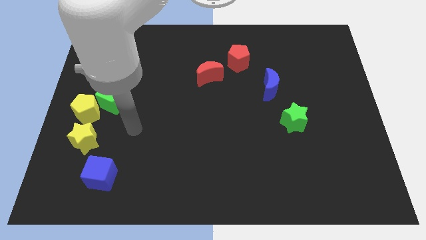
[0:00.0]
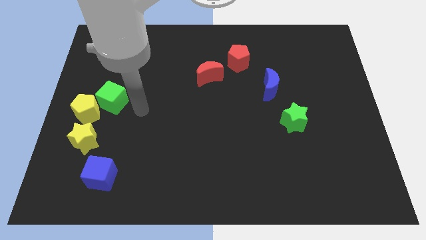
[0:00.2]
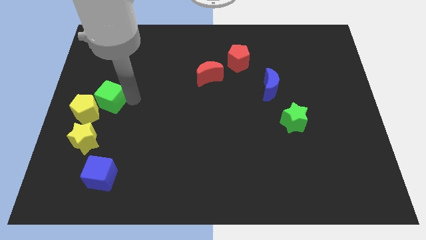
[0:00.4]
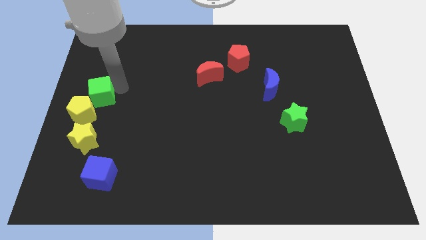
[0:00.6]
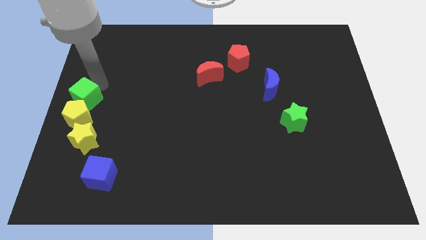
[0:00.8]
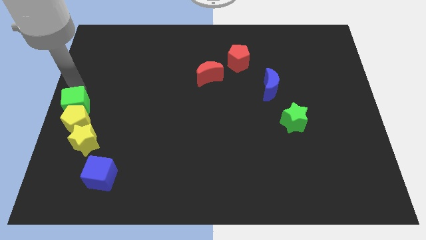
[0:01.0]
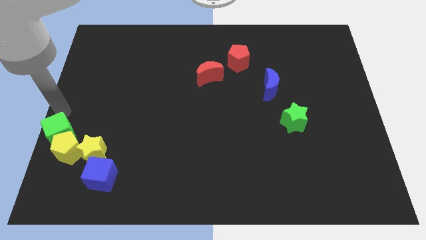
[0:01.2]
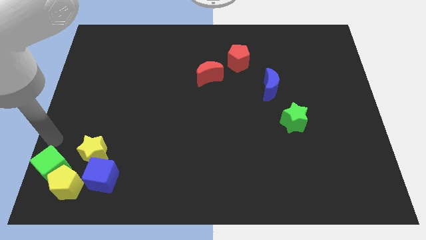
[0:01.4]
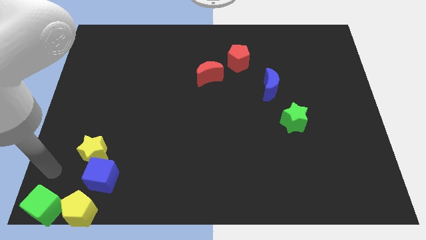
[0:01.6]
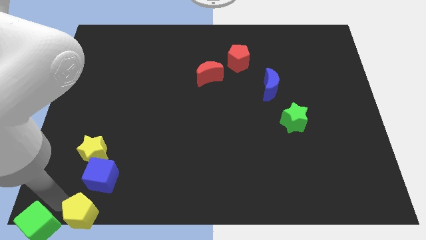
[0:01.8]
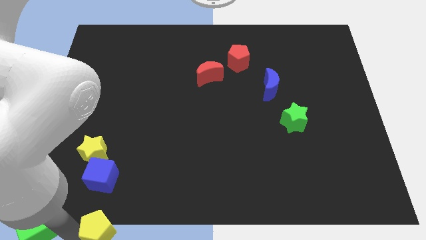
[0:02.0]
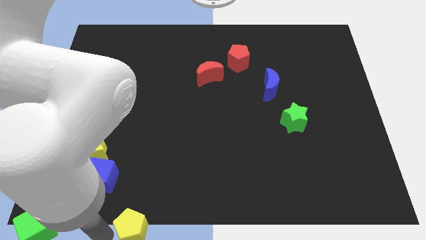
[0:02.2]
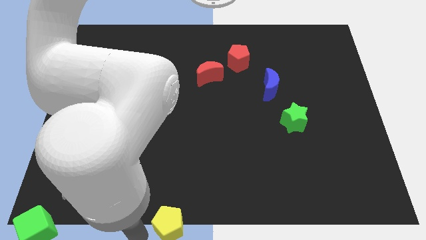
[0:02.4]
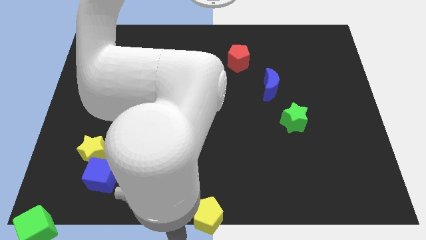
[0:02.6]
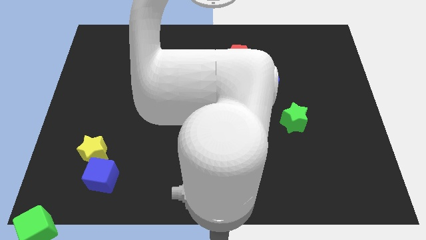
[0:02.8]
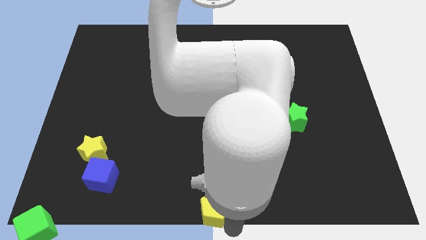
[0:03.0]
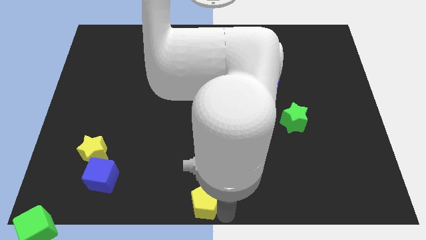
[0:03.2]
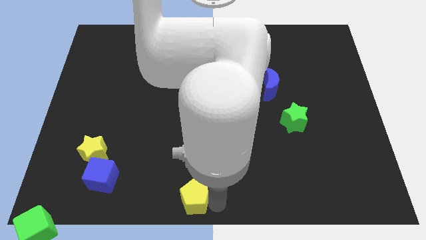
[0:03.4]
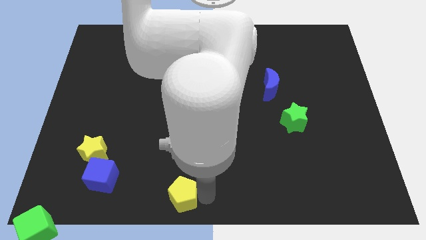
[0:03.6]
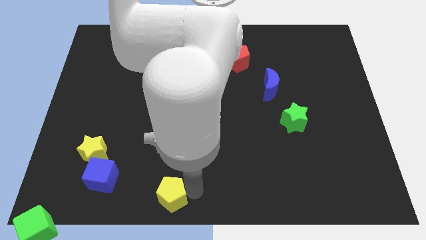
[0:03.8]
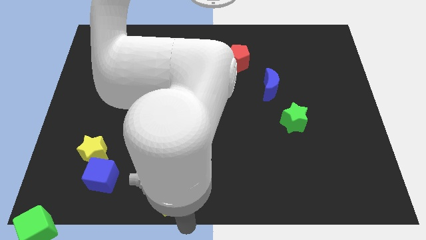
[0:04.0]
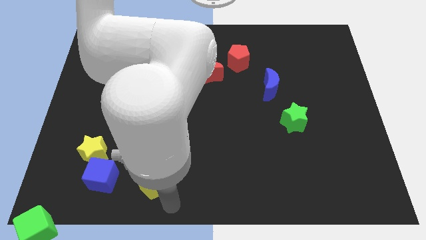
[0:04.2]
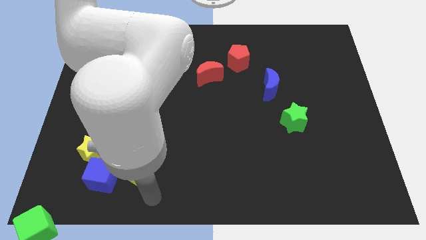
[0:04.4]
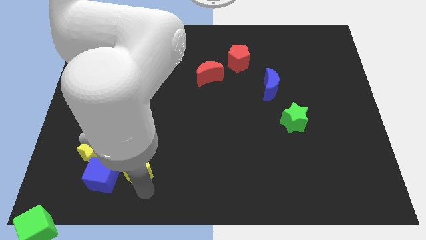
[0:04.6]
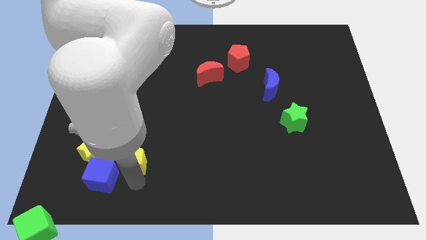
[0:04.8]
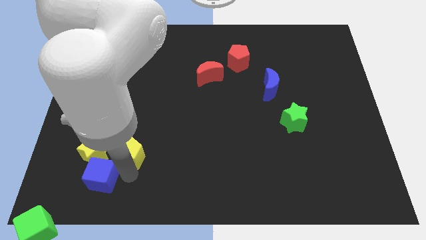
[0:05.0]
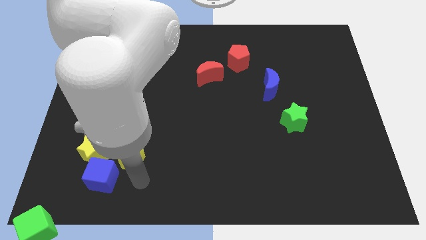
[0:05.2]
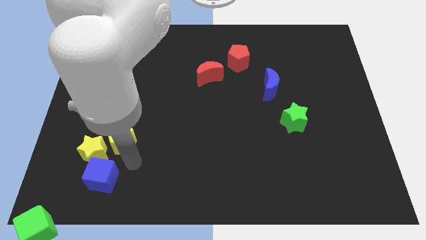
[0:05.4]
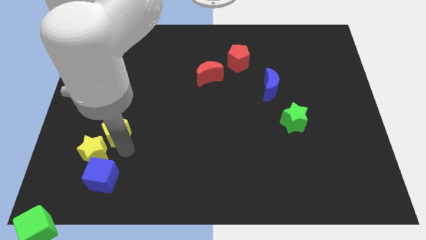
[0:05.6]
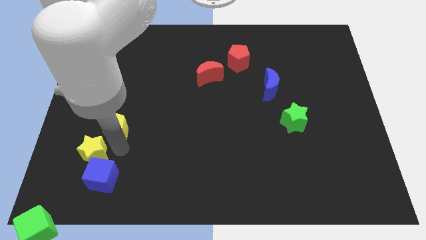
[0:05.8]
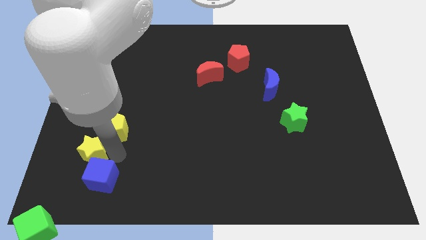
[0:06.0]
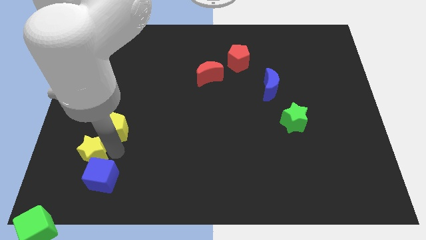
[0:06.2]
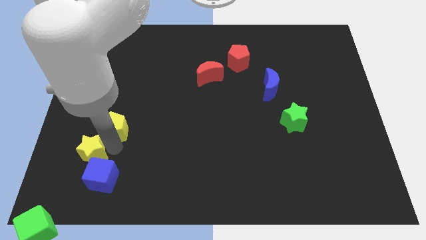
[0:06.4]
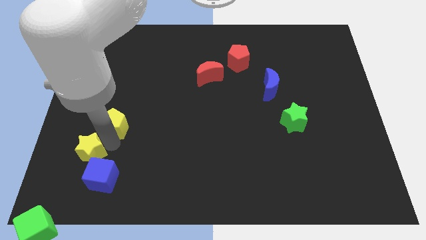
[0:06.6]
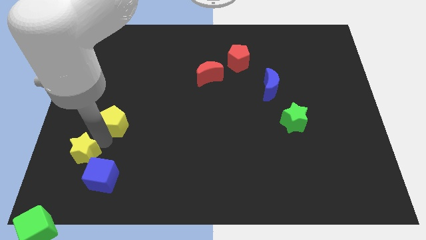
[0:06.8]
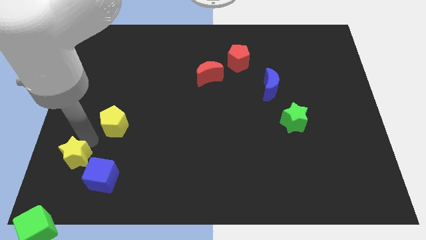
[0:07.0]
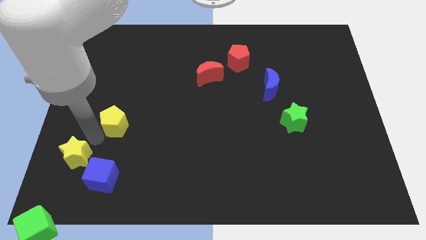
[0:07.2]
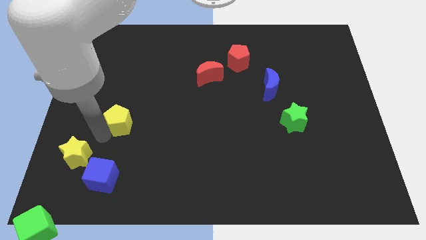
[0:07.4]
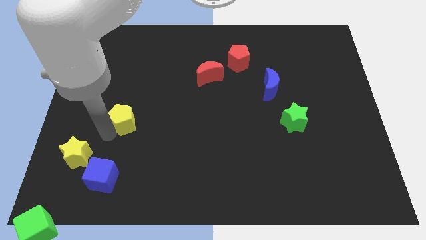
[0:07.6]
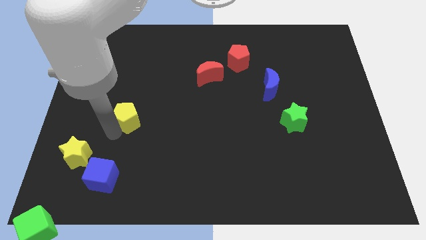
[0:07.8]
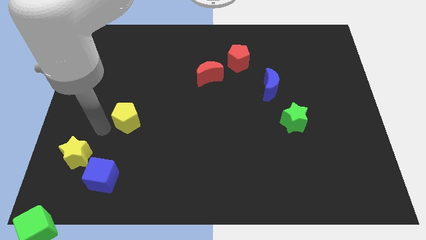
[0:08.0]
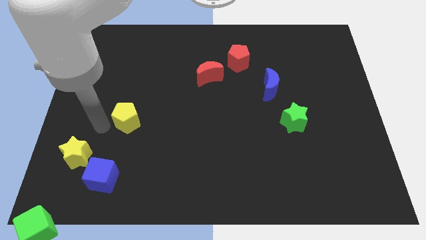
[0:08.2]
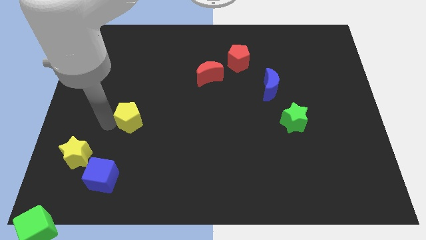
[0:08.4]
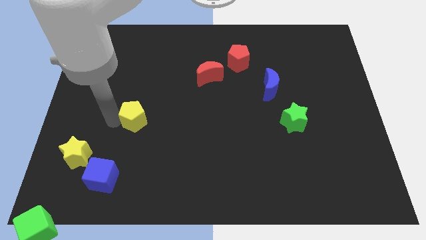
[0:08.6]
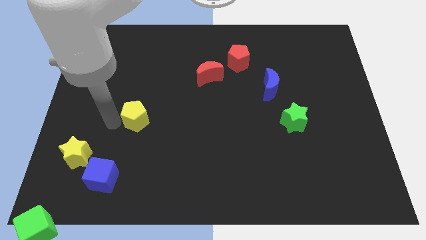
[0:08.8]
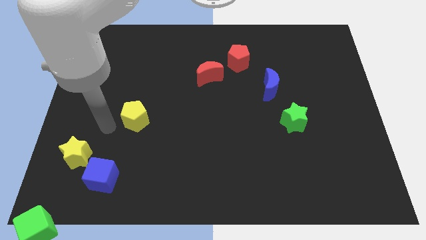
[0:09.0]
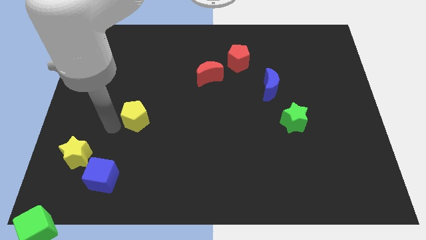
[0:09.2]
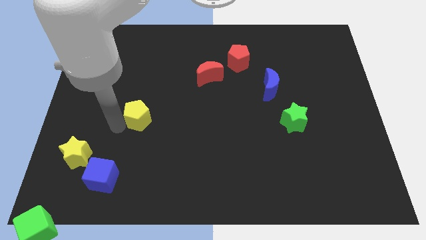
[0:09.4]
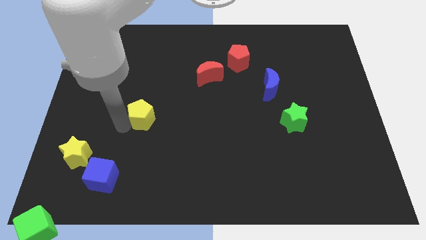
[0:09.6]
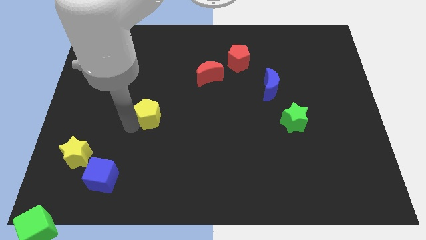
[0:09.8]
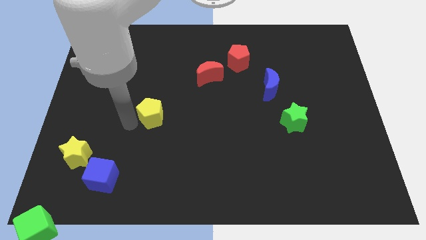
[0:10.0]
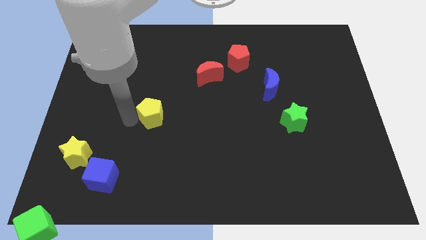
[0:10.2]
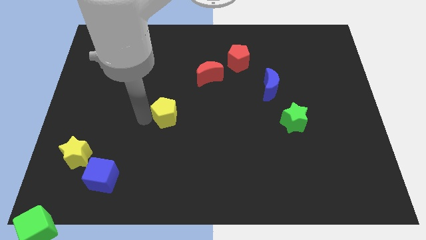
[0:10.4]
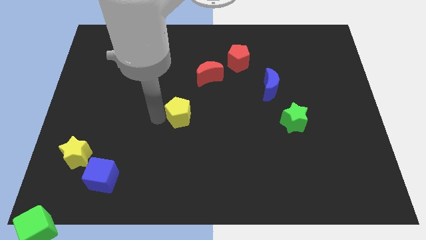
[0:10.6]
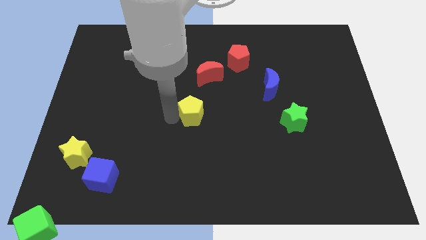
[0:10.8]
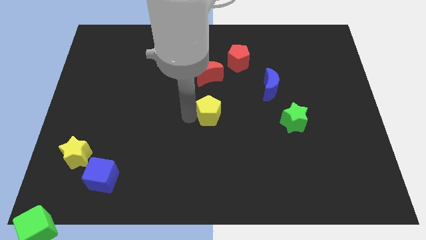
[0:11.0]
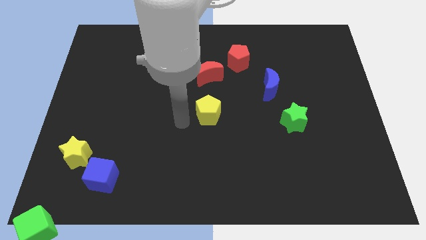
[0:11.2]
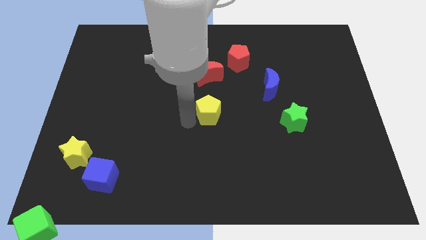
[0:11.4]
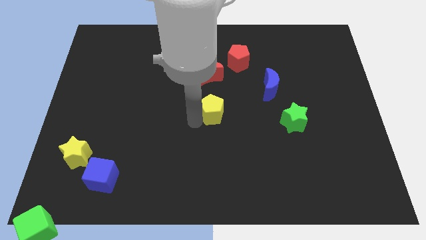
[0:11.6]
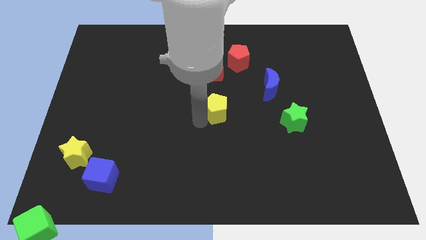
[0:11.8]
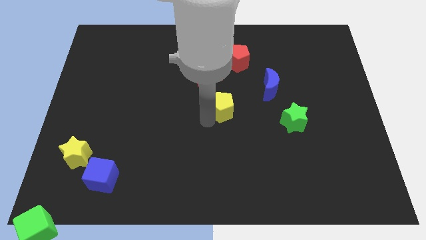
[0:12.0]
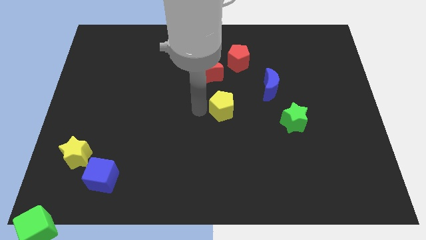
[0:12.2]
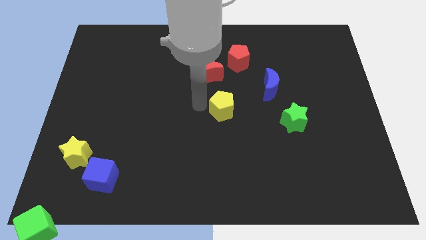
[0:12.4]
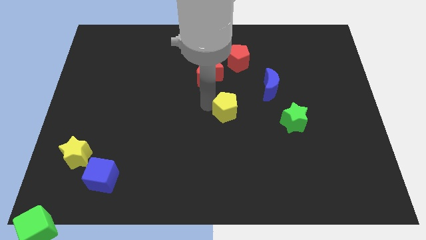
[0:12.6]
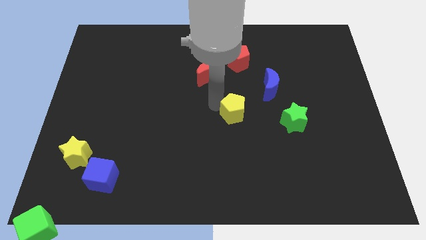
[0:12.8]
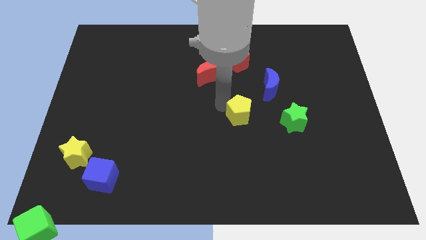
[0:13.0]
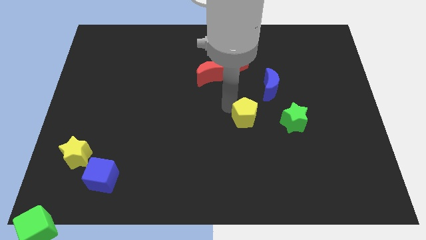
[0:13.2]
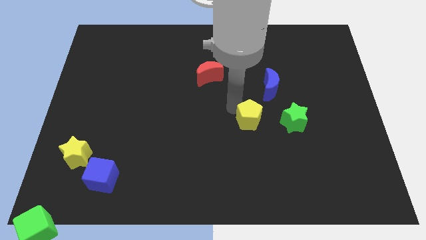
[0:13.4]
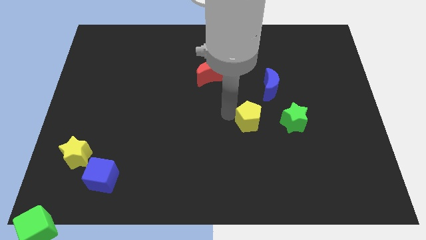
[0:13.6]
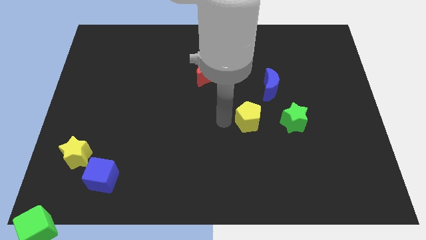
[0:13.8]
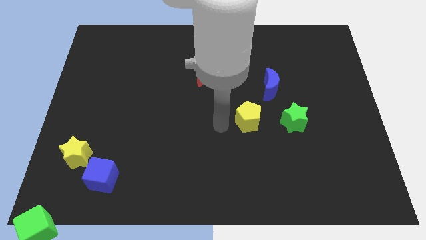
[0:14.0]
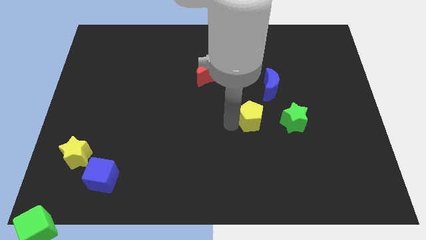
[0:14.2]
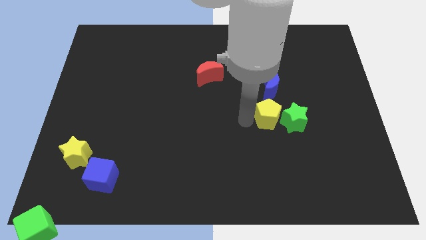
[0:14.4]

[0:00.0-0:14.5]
move the yellow pentagon next to the green star
